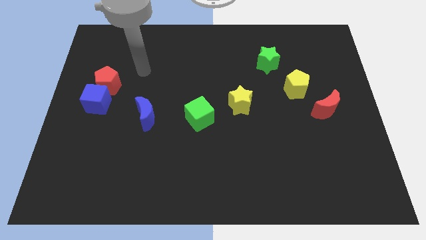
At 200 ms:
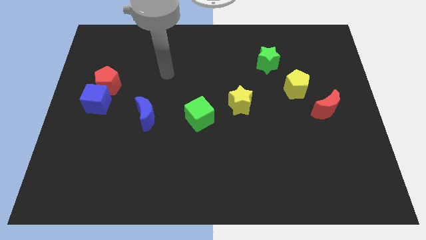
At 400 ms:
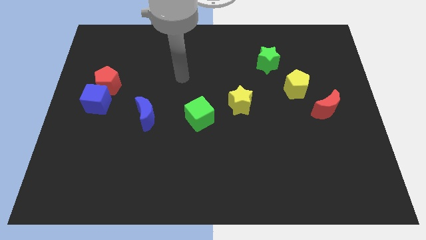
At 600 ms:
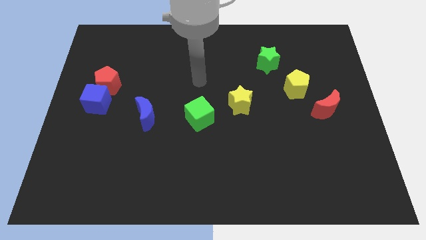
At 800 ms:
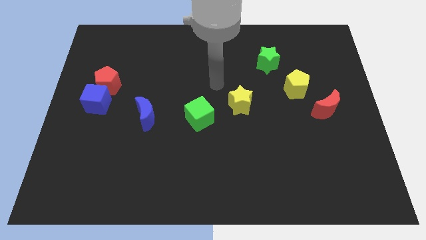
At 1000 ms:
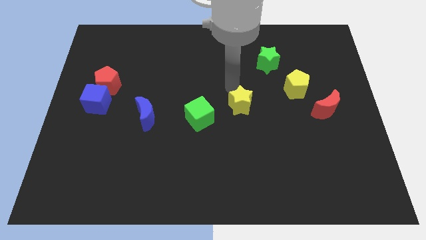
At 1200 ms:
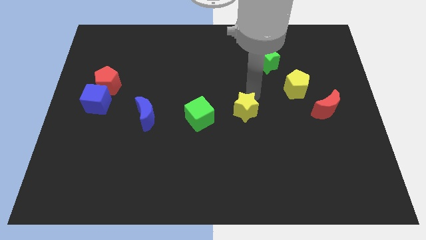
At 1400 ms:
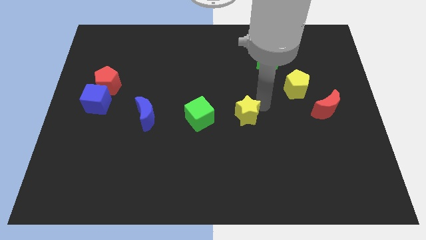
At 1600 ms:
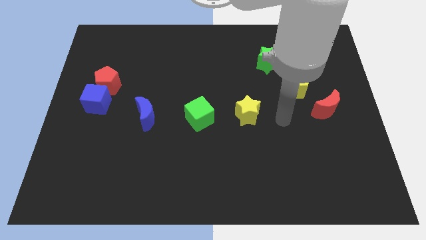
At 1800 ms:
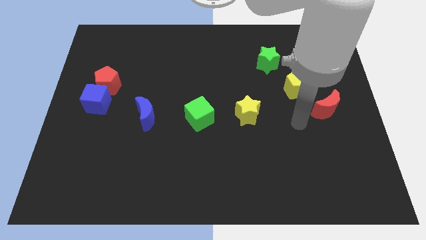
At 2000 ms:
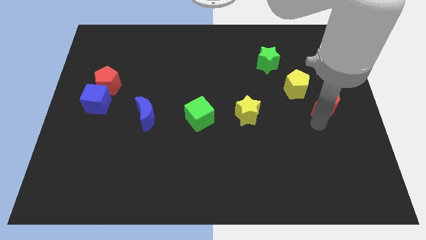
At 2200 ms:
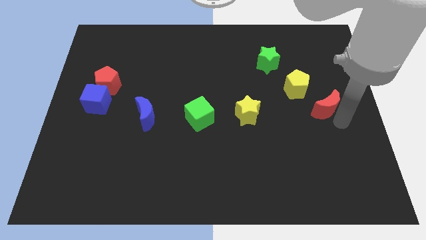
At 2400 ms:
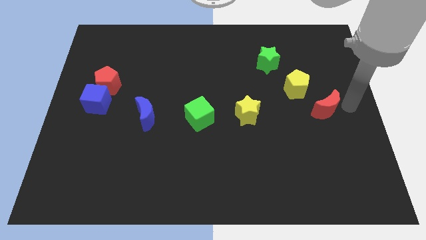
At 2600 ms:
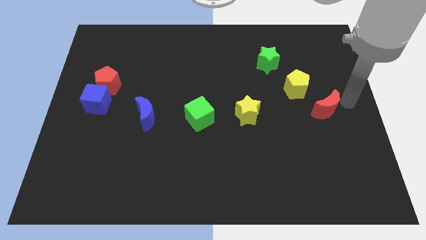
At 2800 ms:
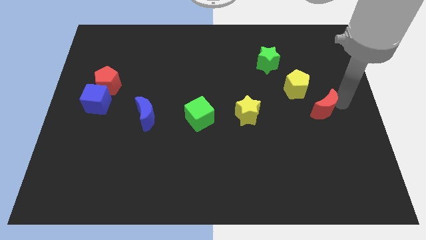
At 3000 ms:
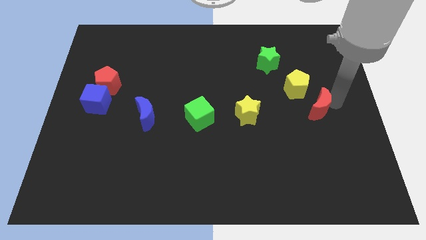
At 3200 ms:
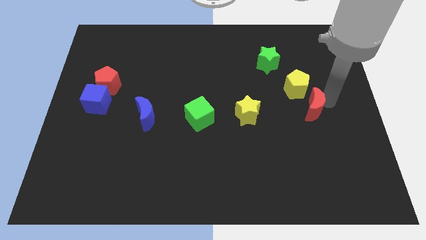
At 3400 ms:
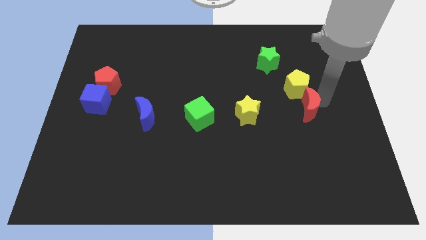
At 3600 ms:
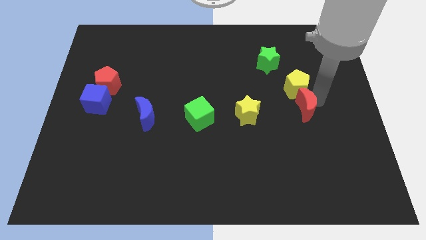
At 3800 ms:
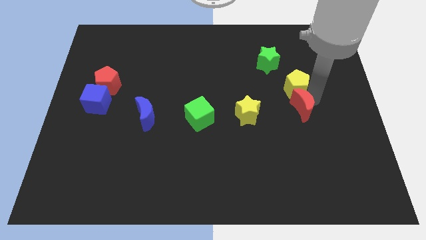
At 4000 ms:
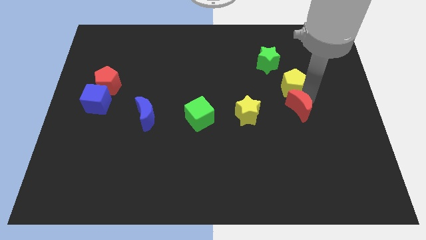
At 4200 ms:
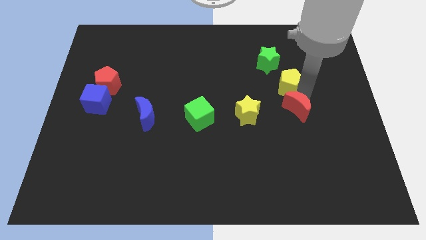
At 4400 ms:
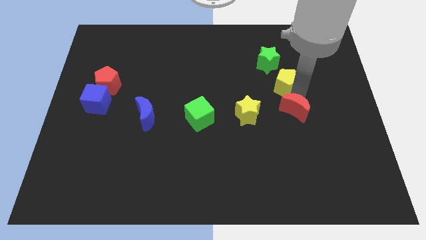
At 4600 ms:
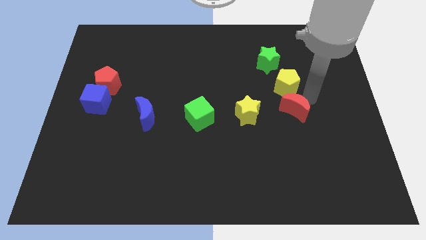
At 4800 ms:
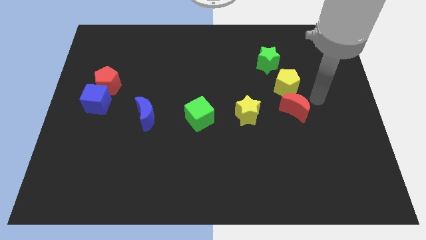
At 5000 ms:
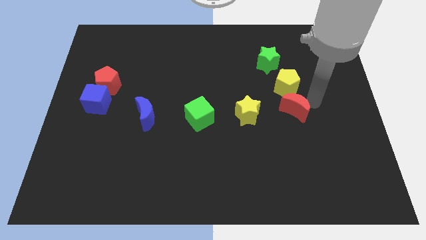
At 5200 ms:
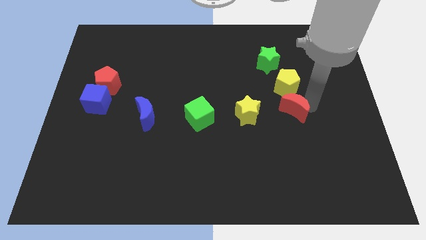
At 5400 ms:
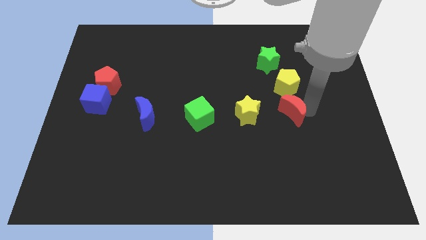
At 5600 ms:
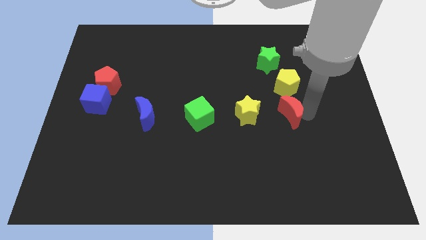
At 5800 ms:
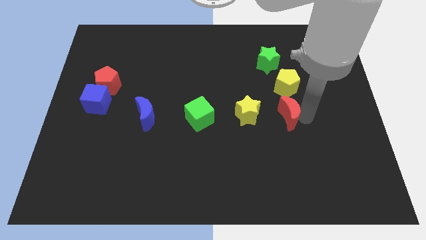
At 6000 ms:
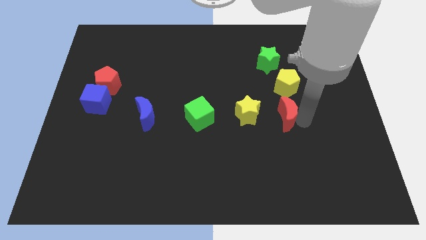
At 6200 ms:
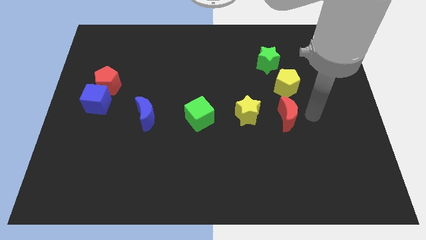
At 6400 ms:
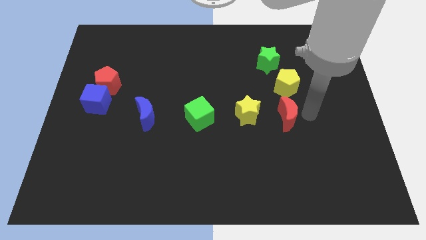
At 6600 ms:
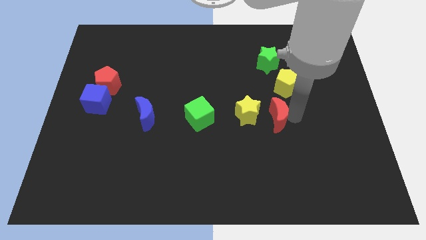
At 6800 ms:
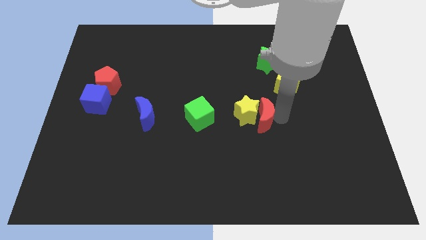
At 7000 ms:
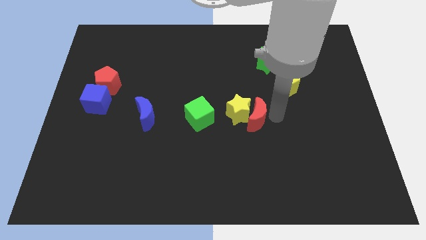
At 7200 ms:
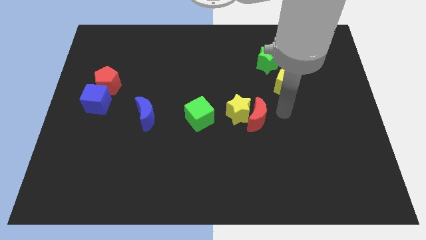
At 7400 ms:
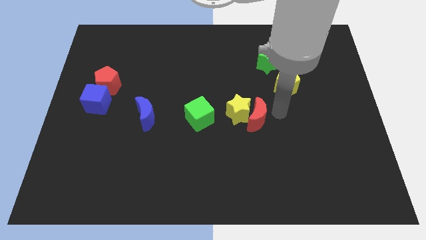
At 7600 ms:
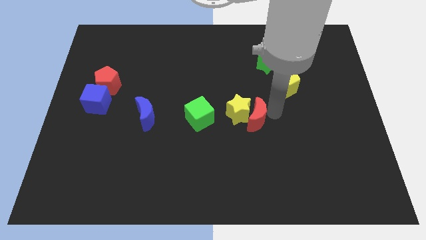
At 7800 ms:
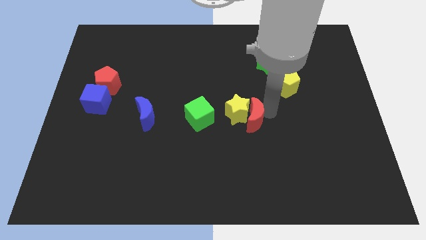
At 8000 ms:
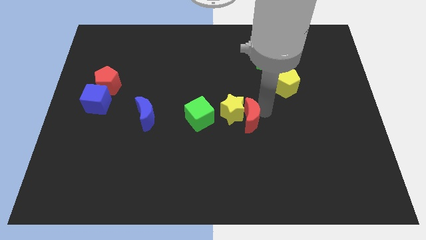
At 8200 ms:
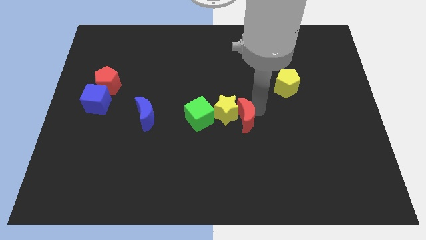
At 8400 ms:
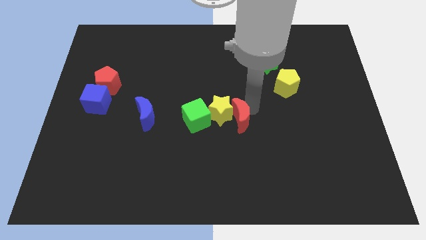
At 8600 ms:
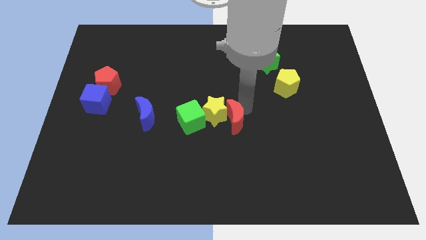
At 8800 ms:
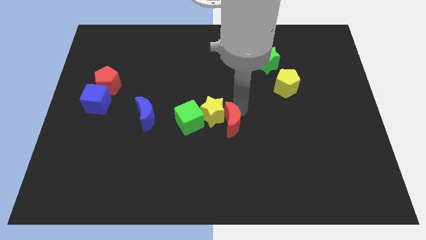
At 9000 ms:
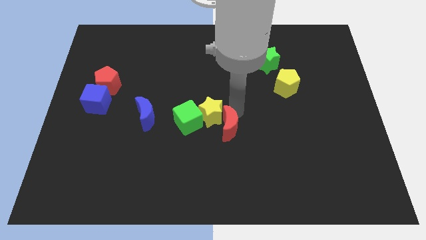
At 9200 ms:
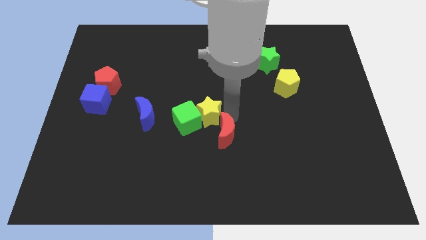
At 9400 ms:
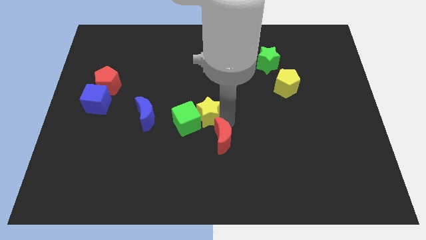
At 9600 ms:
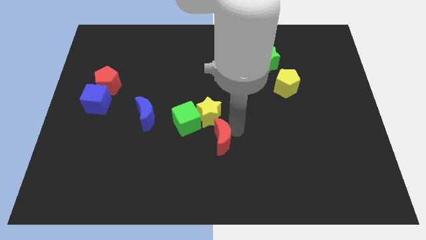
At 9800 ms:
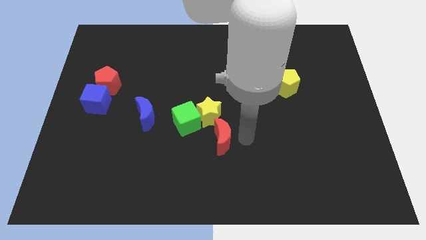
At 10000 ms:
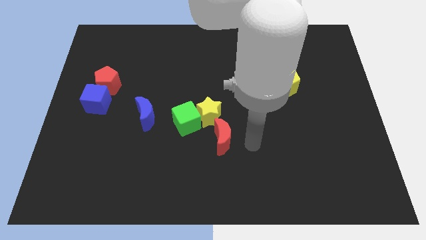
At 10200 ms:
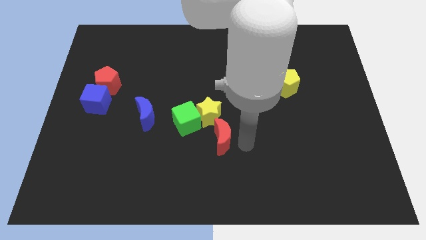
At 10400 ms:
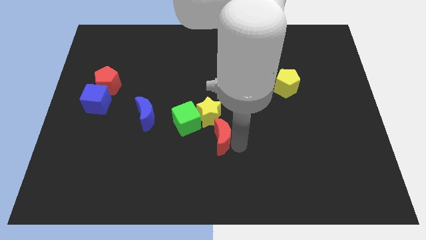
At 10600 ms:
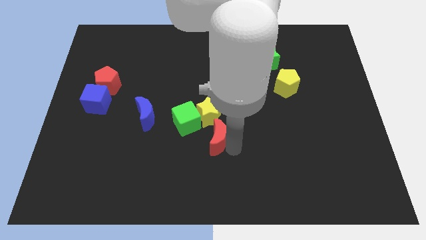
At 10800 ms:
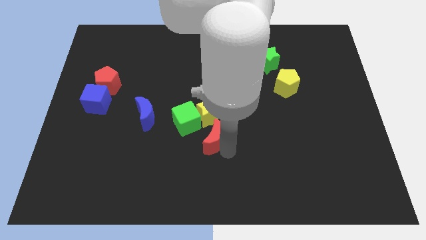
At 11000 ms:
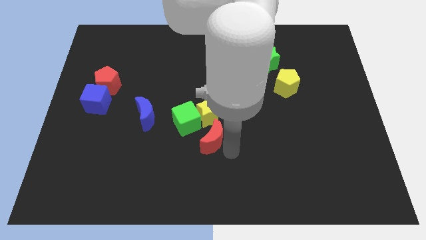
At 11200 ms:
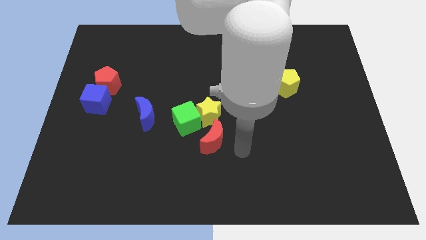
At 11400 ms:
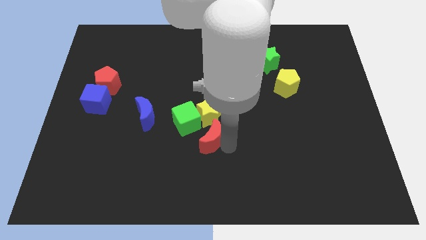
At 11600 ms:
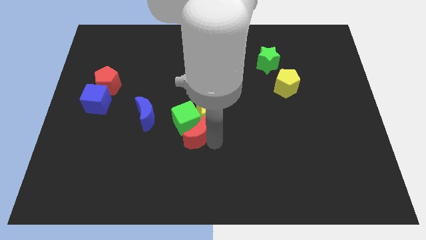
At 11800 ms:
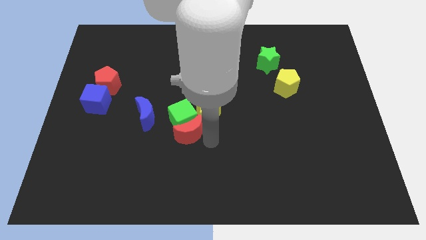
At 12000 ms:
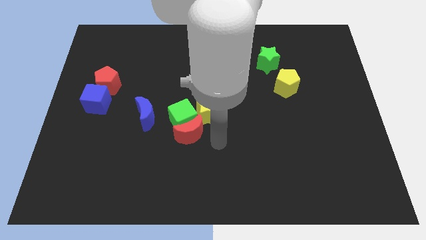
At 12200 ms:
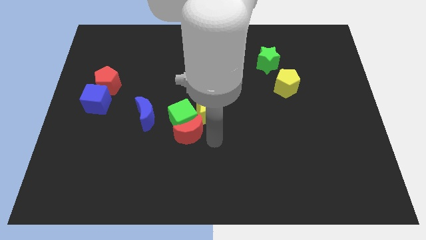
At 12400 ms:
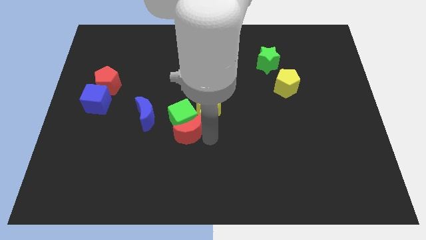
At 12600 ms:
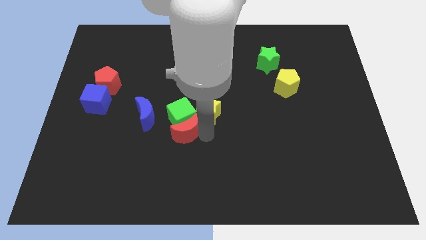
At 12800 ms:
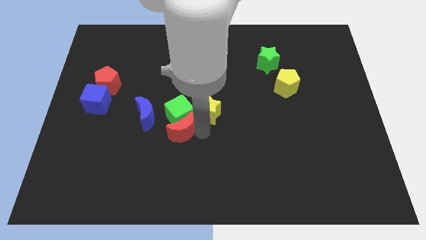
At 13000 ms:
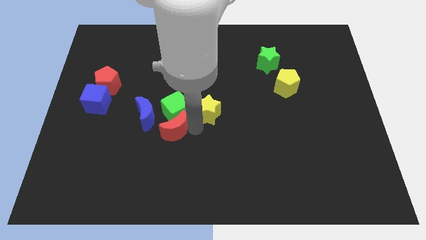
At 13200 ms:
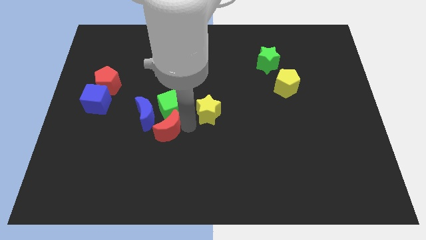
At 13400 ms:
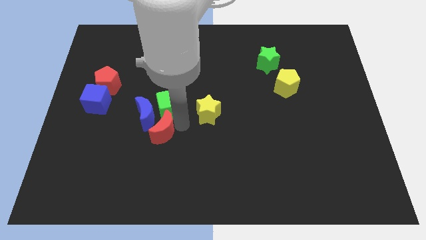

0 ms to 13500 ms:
put the red moon close to the blue moon
